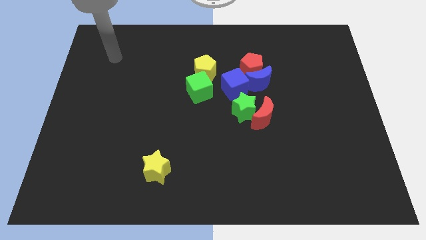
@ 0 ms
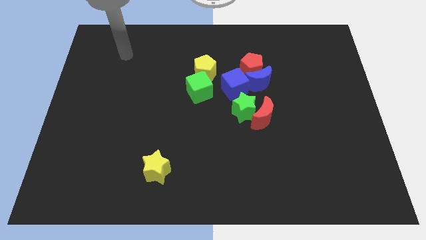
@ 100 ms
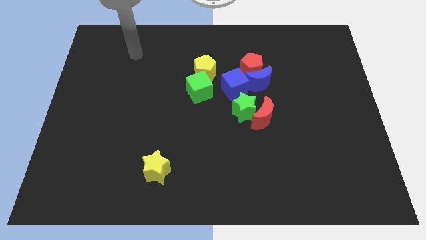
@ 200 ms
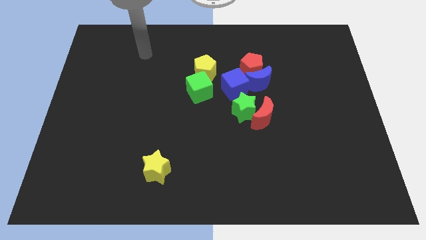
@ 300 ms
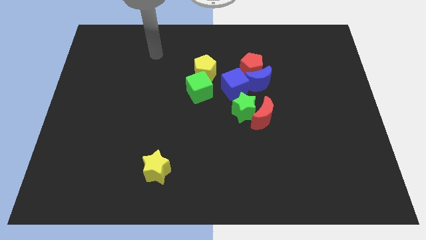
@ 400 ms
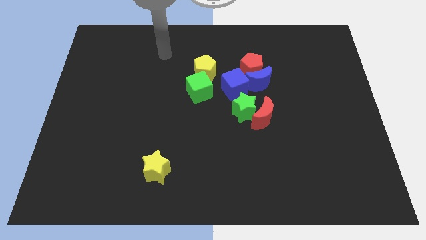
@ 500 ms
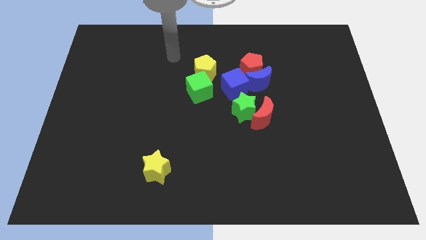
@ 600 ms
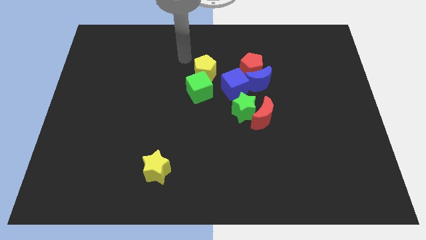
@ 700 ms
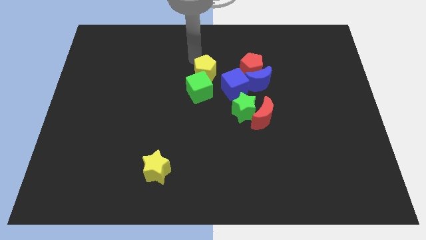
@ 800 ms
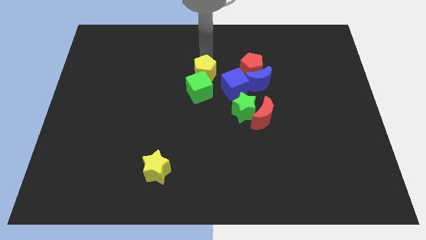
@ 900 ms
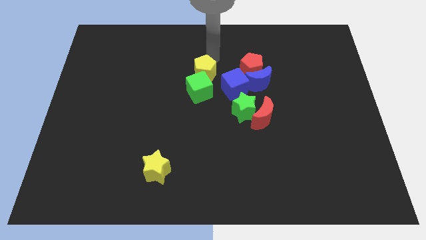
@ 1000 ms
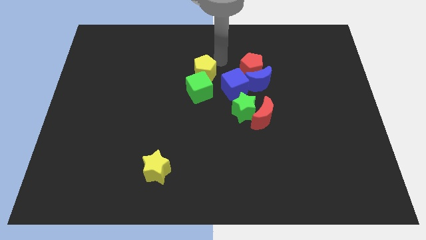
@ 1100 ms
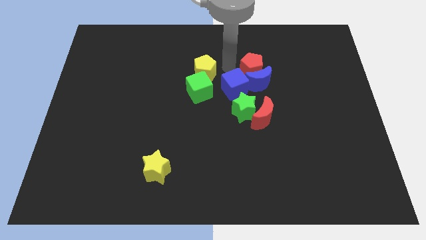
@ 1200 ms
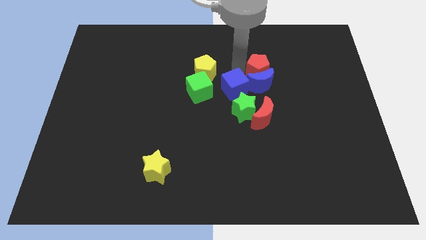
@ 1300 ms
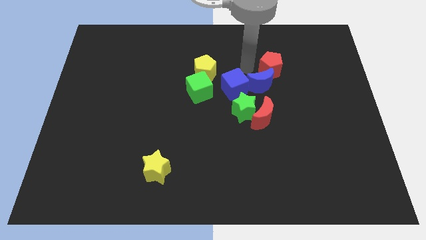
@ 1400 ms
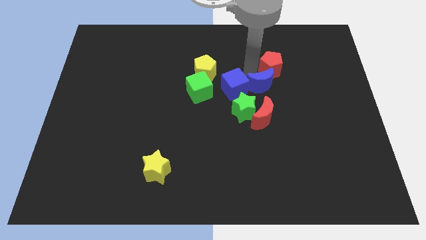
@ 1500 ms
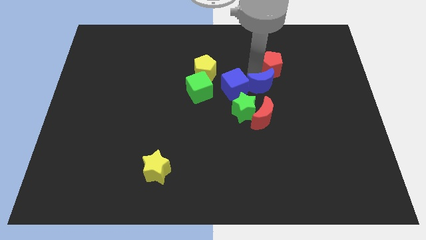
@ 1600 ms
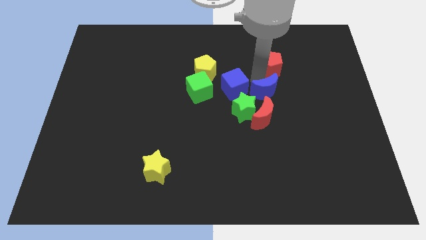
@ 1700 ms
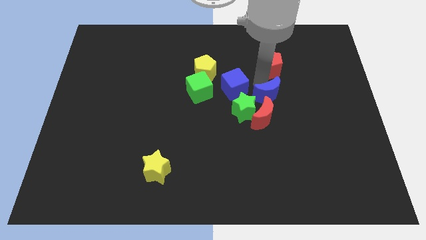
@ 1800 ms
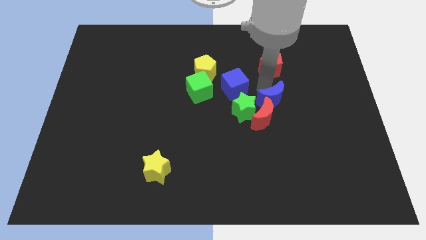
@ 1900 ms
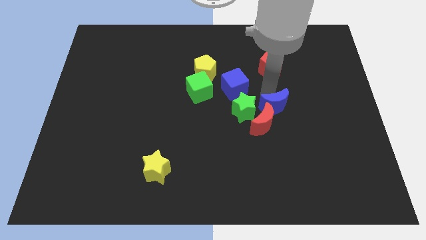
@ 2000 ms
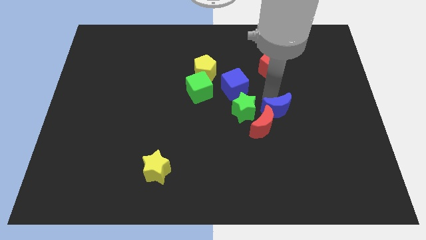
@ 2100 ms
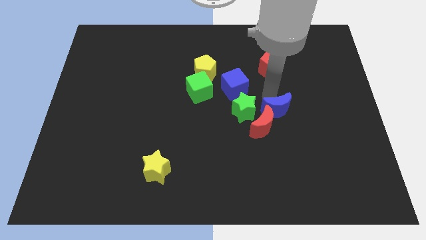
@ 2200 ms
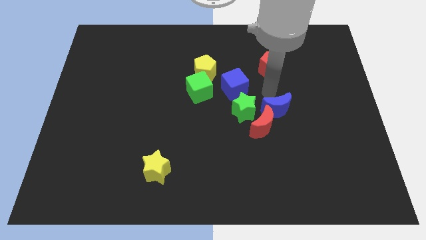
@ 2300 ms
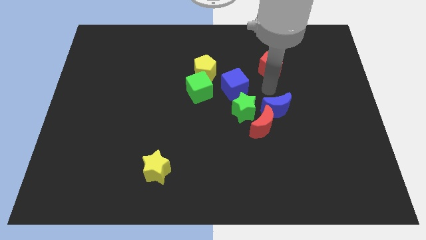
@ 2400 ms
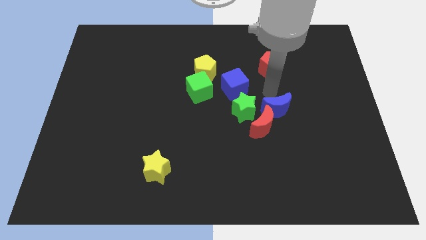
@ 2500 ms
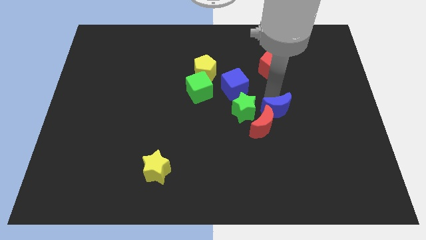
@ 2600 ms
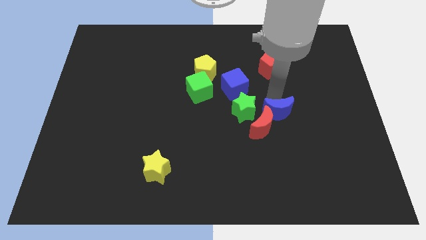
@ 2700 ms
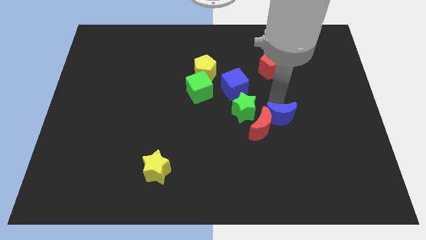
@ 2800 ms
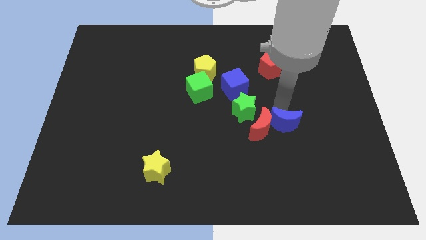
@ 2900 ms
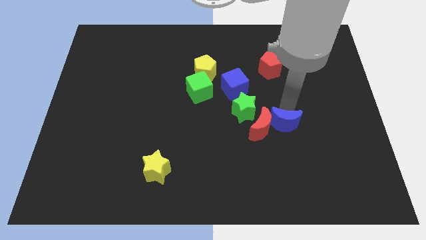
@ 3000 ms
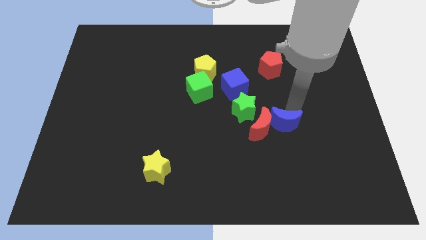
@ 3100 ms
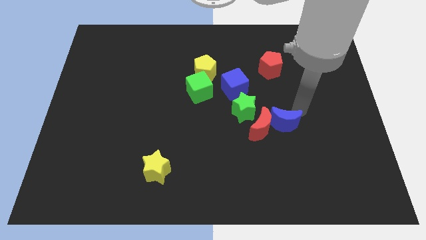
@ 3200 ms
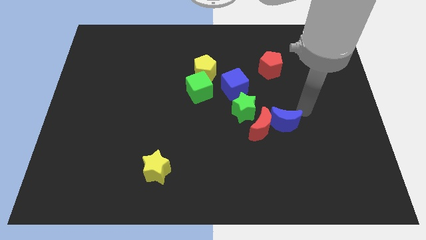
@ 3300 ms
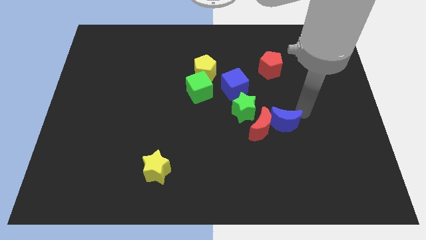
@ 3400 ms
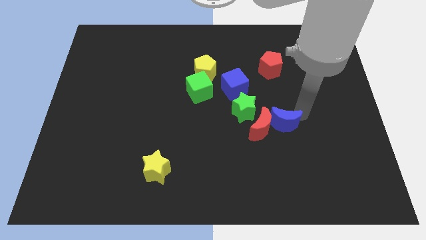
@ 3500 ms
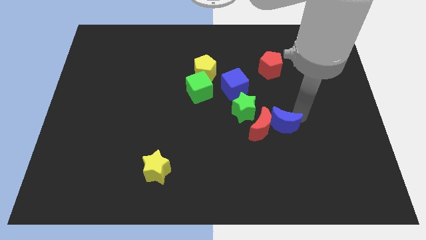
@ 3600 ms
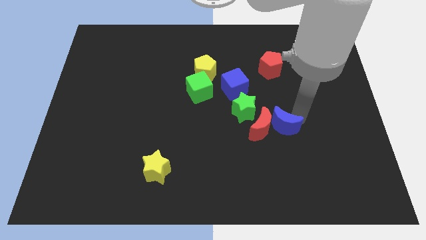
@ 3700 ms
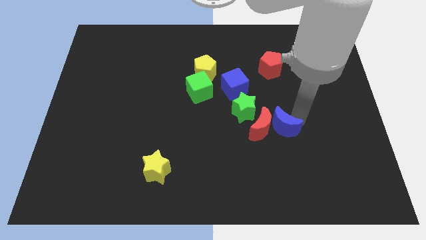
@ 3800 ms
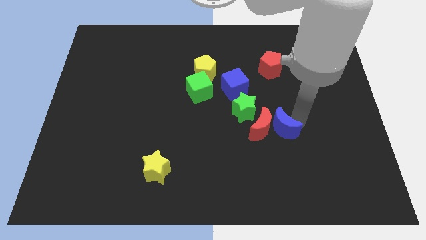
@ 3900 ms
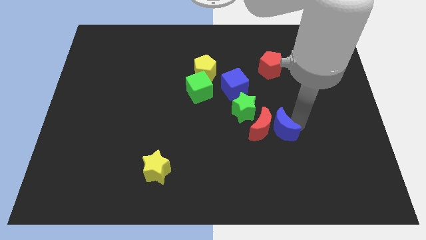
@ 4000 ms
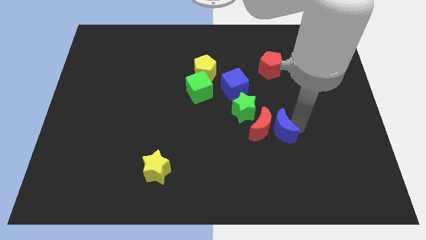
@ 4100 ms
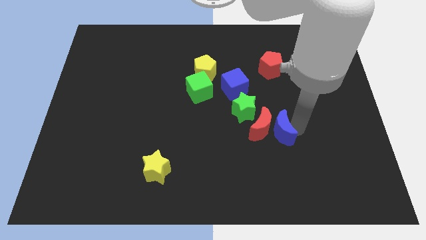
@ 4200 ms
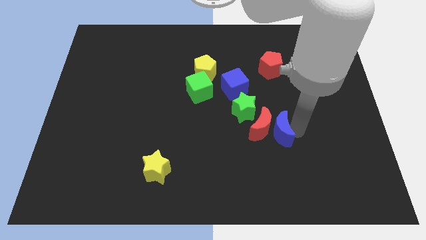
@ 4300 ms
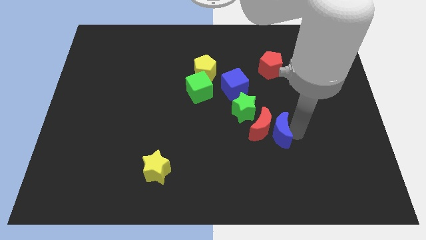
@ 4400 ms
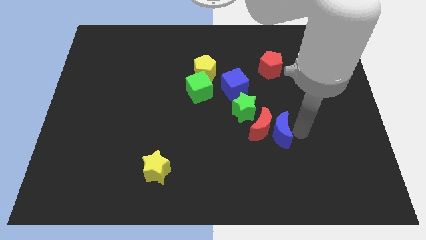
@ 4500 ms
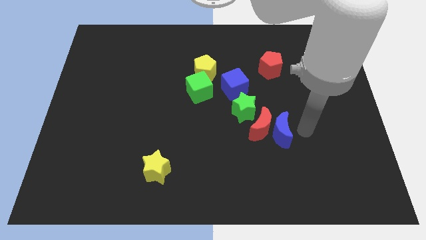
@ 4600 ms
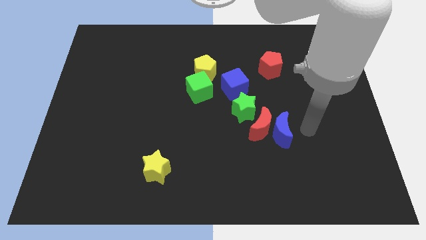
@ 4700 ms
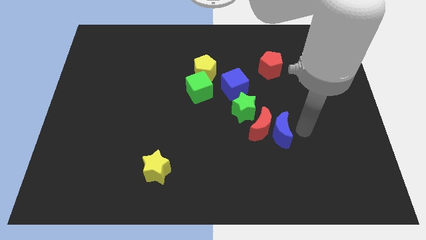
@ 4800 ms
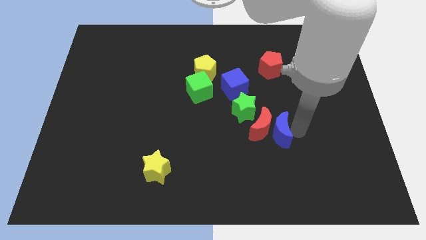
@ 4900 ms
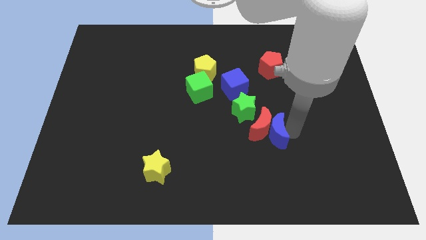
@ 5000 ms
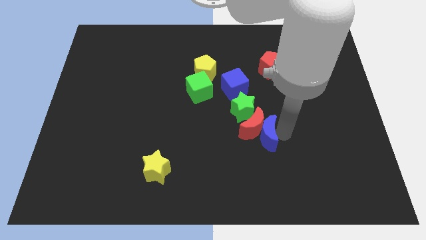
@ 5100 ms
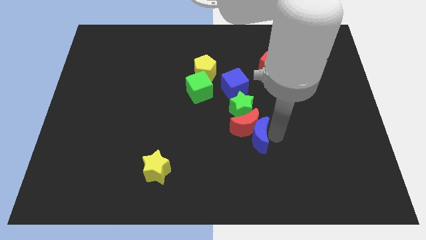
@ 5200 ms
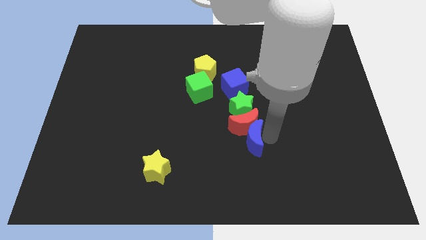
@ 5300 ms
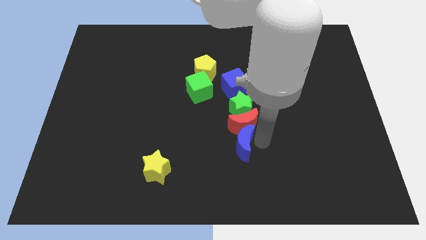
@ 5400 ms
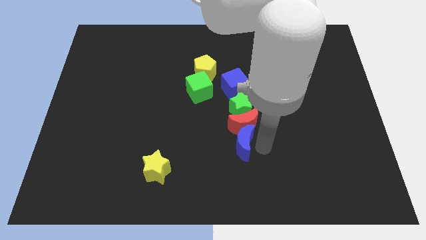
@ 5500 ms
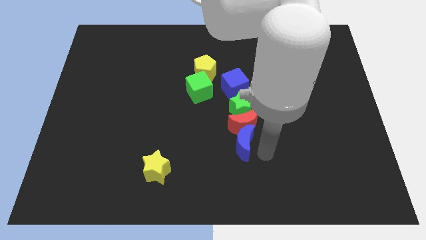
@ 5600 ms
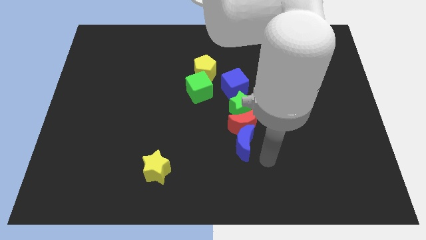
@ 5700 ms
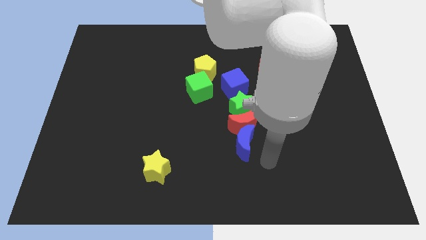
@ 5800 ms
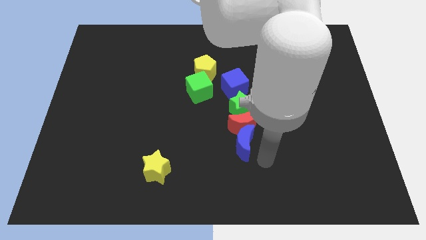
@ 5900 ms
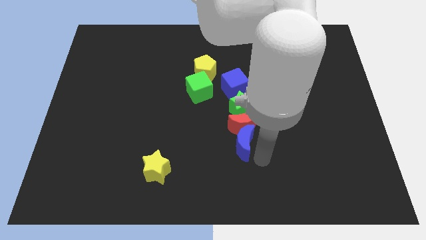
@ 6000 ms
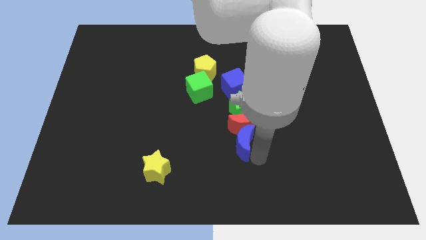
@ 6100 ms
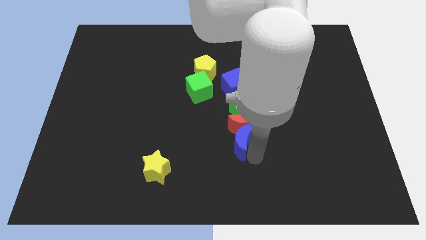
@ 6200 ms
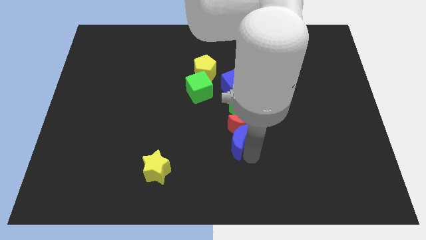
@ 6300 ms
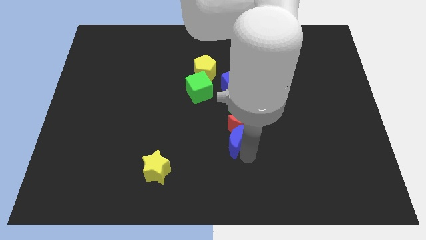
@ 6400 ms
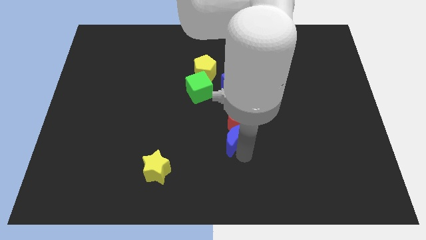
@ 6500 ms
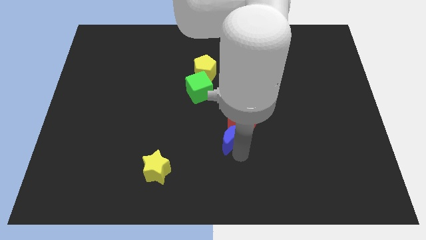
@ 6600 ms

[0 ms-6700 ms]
put the blue moon diagonally down and to the left of the green star

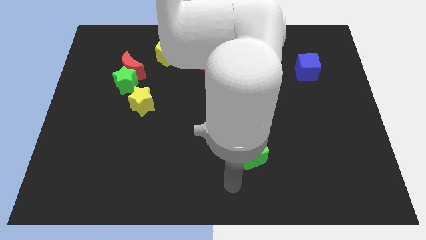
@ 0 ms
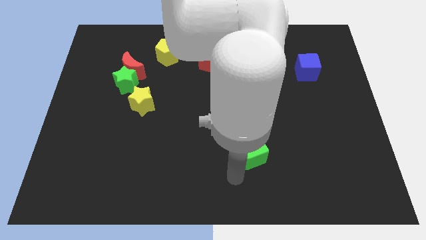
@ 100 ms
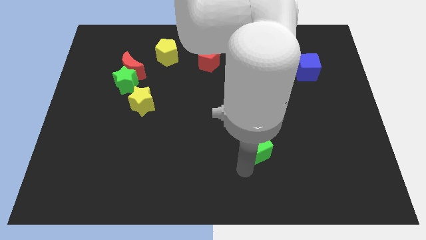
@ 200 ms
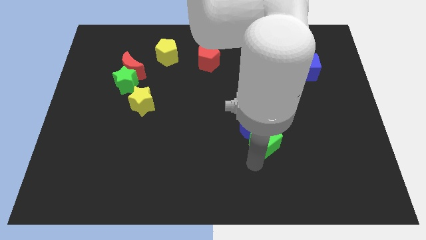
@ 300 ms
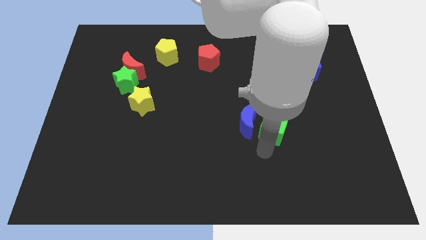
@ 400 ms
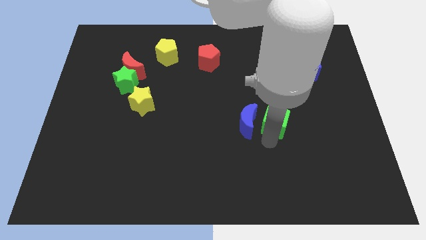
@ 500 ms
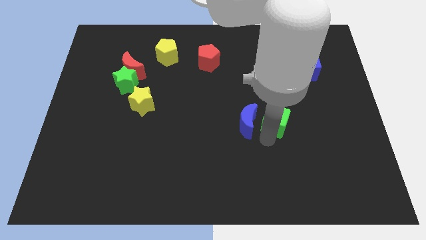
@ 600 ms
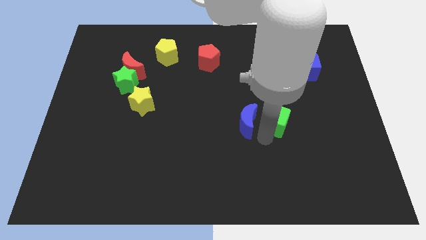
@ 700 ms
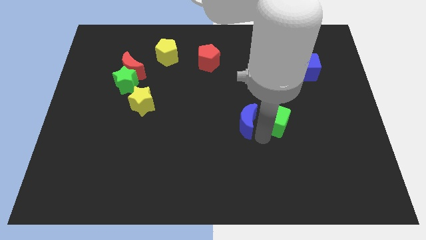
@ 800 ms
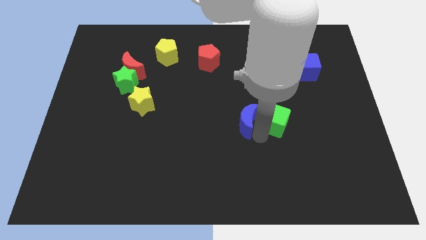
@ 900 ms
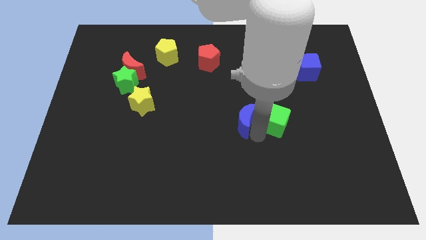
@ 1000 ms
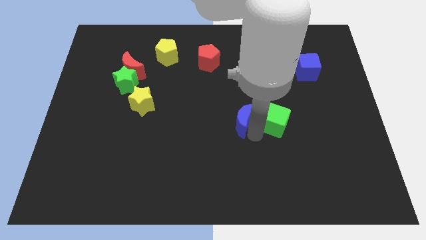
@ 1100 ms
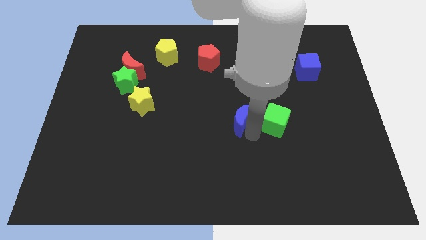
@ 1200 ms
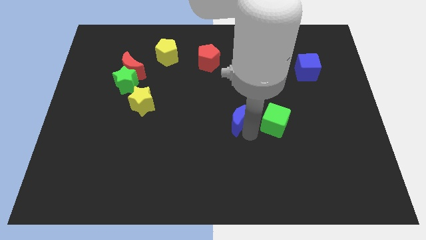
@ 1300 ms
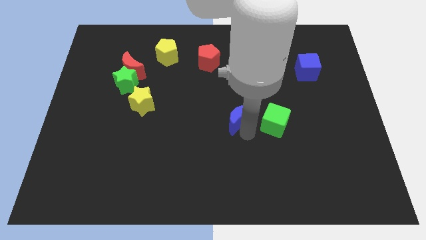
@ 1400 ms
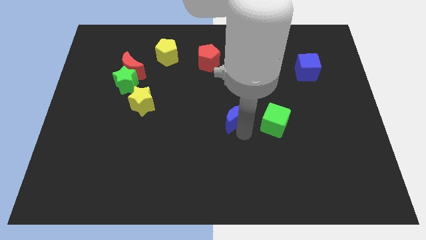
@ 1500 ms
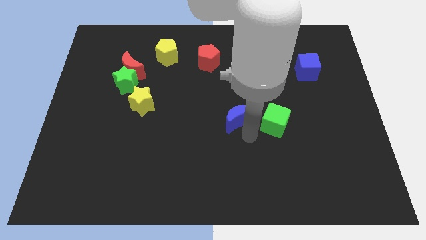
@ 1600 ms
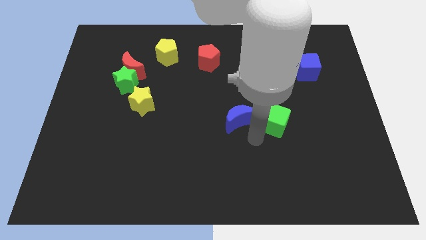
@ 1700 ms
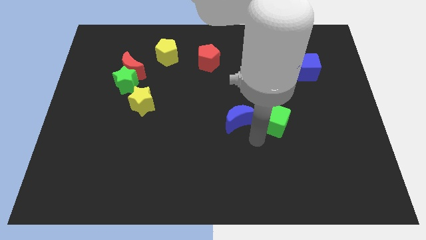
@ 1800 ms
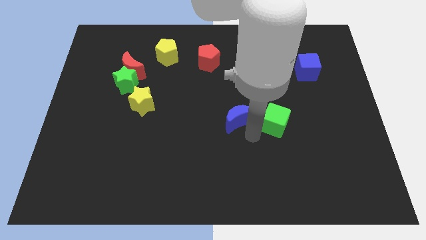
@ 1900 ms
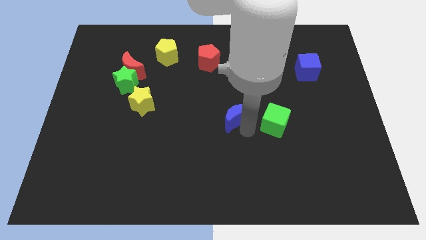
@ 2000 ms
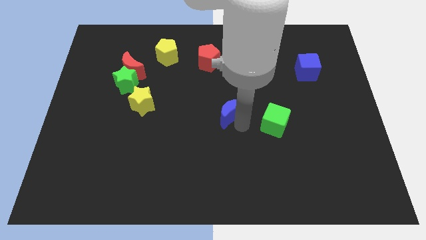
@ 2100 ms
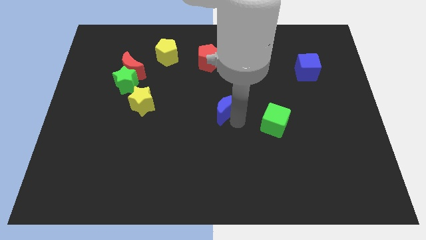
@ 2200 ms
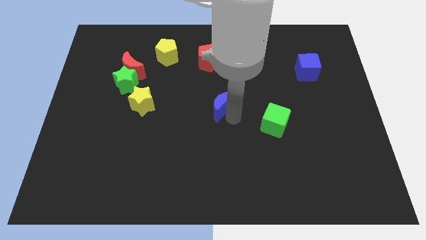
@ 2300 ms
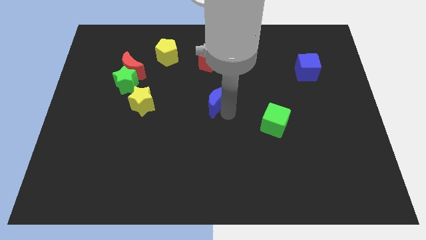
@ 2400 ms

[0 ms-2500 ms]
move the blue moon to the bottom side of the red pentagon
